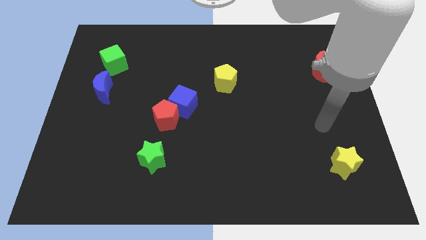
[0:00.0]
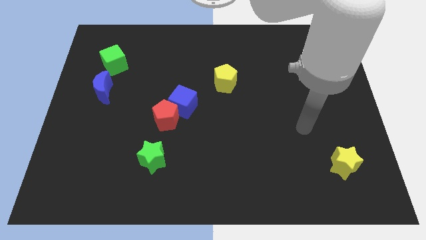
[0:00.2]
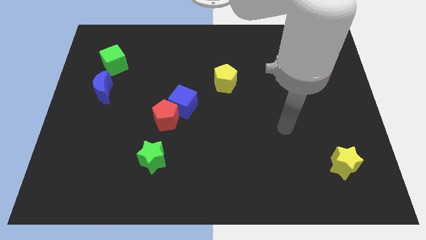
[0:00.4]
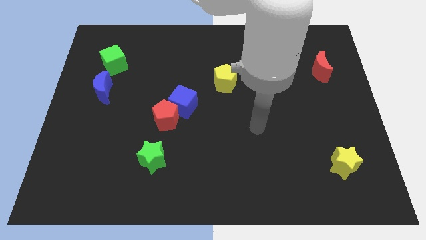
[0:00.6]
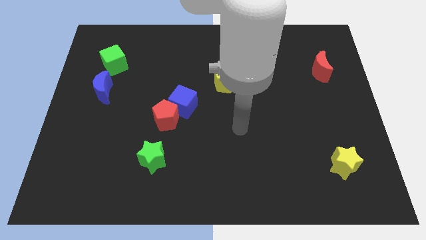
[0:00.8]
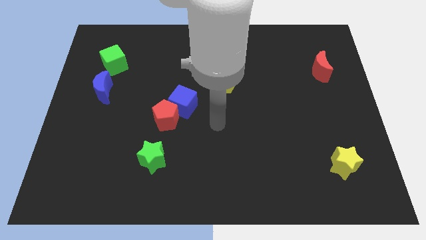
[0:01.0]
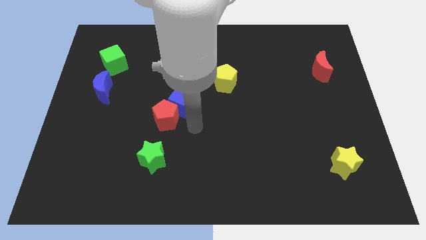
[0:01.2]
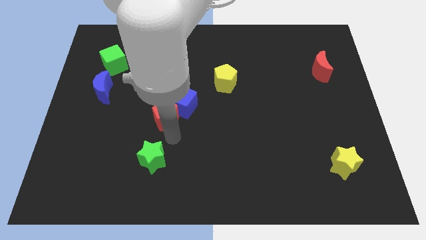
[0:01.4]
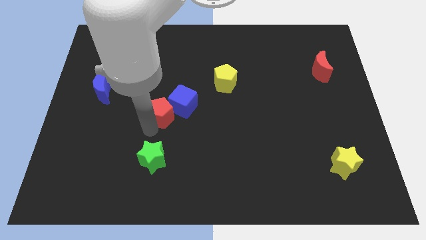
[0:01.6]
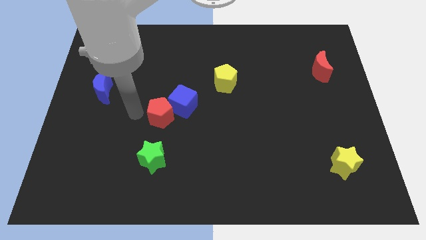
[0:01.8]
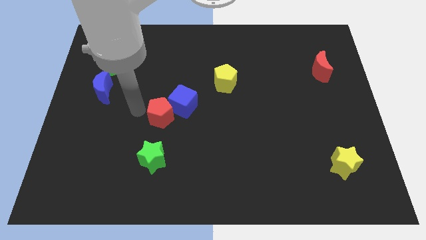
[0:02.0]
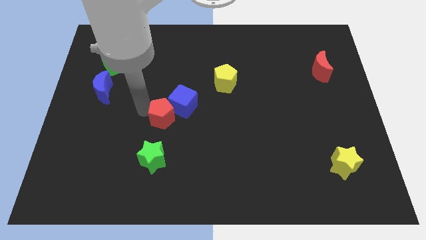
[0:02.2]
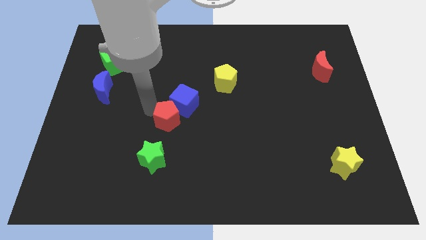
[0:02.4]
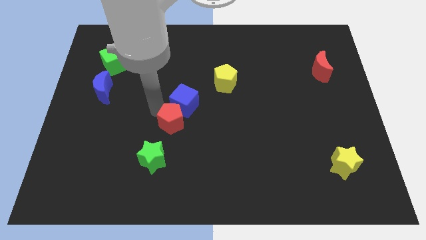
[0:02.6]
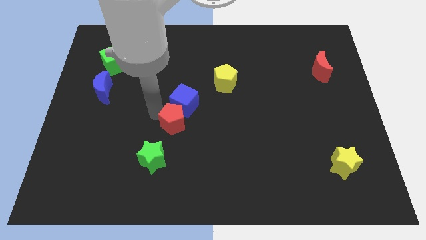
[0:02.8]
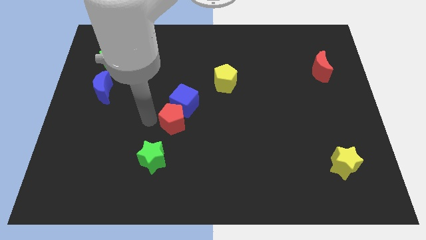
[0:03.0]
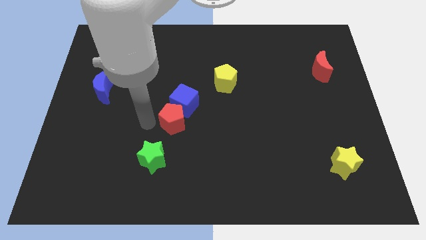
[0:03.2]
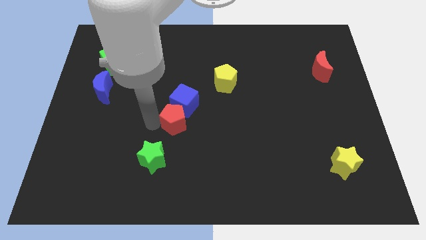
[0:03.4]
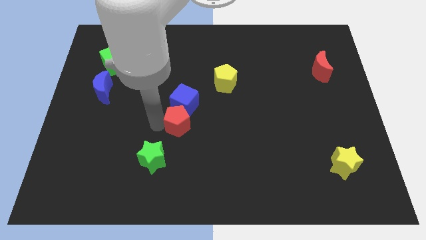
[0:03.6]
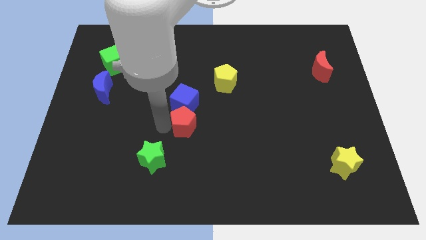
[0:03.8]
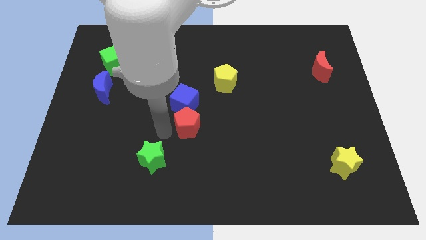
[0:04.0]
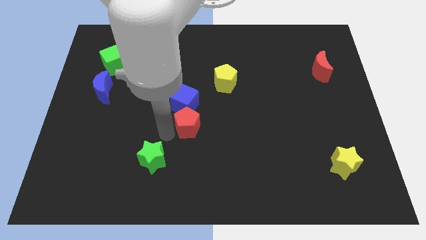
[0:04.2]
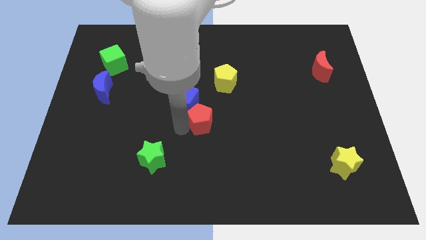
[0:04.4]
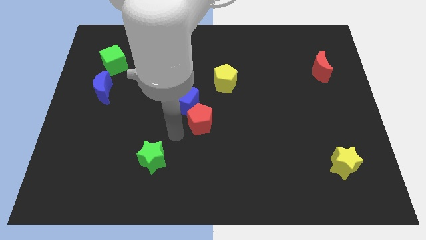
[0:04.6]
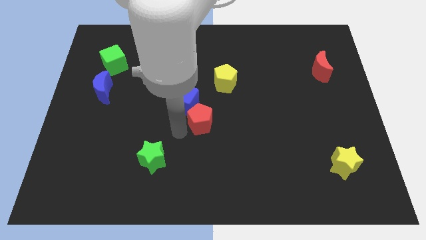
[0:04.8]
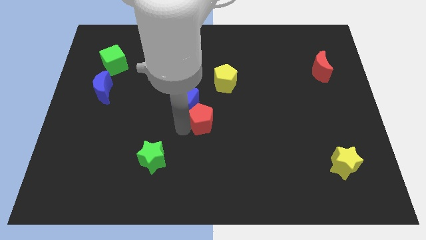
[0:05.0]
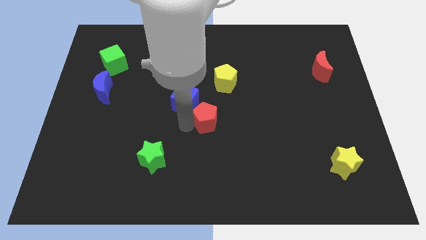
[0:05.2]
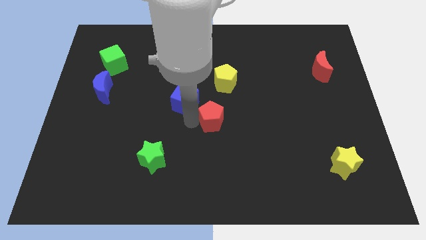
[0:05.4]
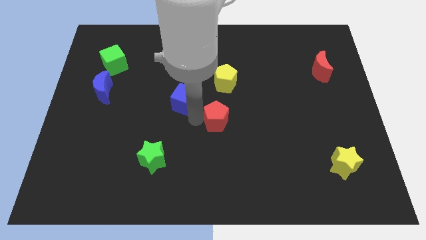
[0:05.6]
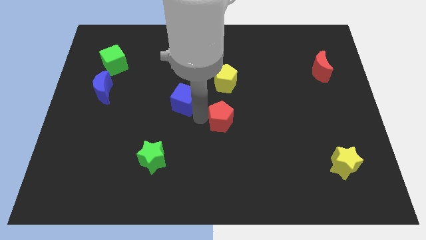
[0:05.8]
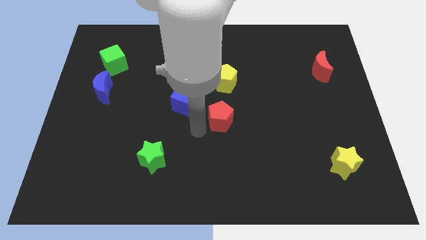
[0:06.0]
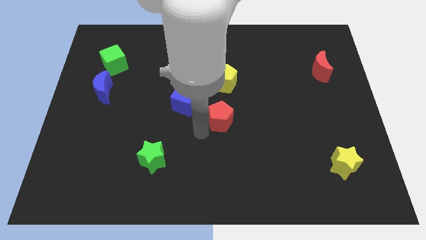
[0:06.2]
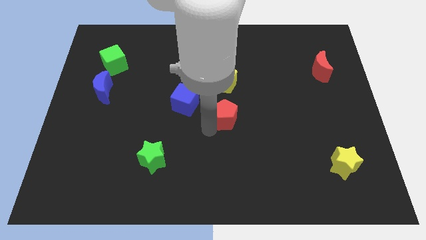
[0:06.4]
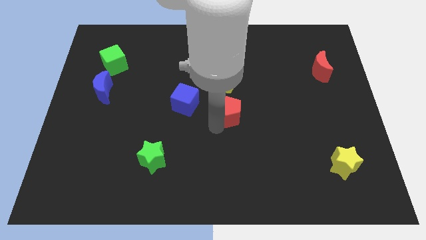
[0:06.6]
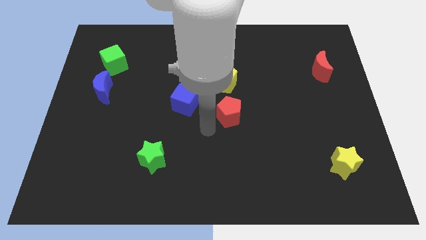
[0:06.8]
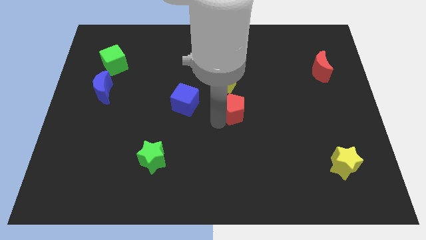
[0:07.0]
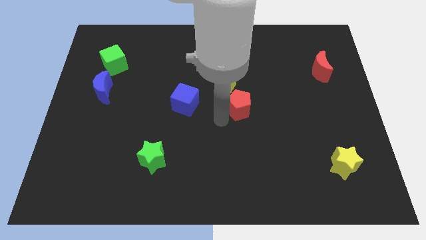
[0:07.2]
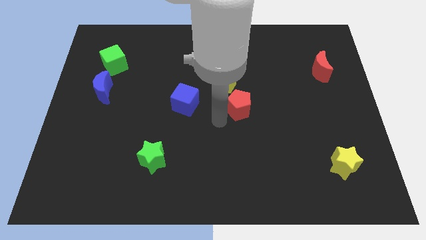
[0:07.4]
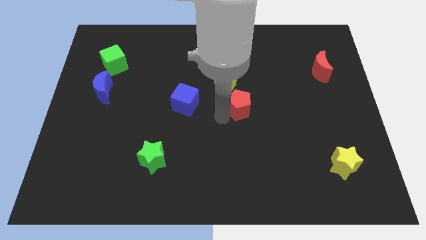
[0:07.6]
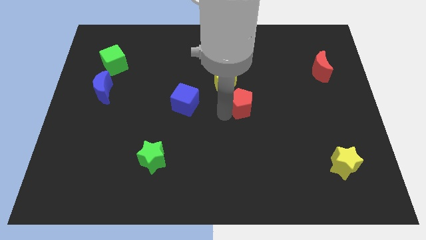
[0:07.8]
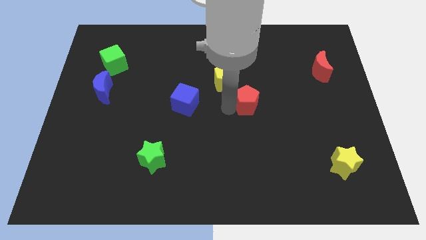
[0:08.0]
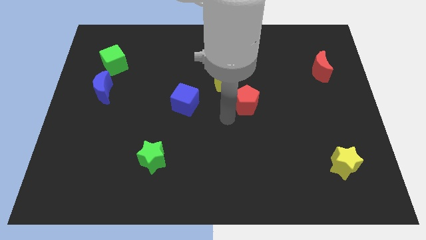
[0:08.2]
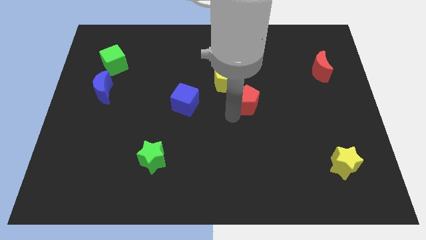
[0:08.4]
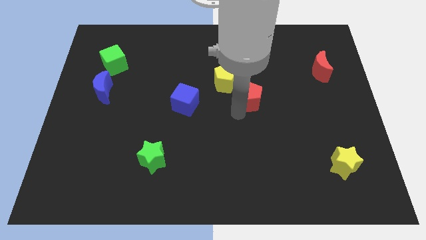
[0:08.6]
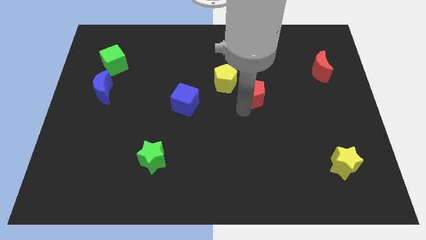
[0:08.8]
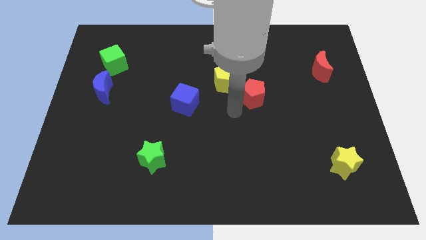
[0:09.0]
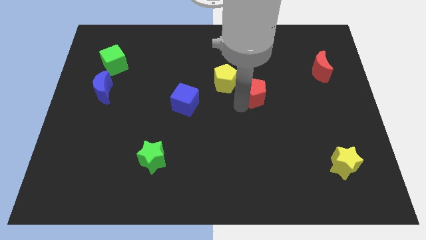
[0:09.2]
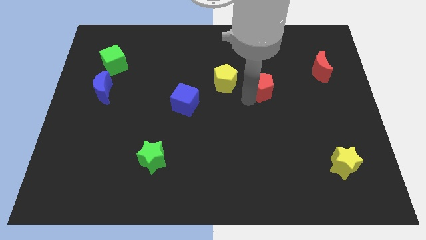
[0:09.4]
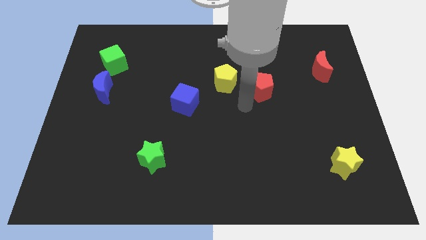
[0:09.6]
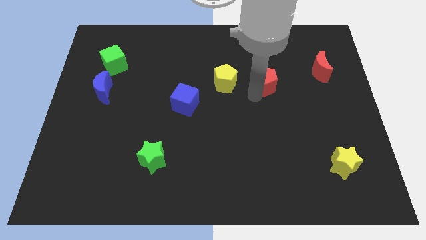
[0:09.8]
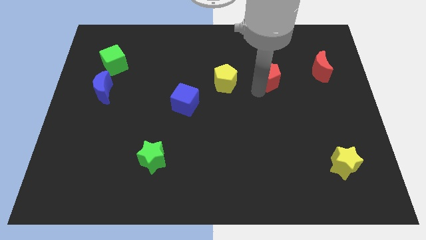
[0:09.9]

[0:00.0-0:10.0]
slide the red pentagon just left of the red moon

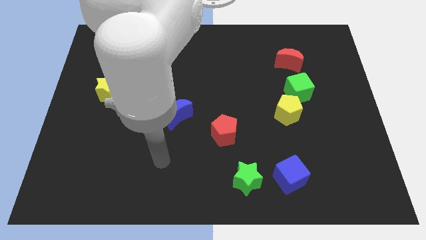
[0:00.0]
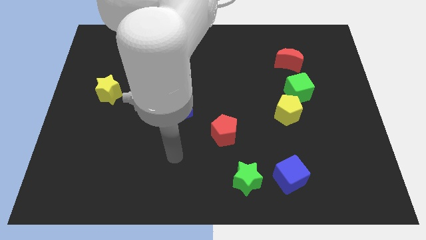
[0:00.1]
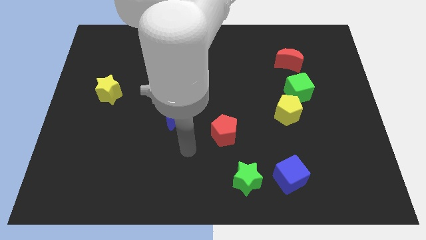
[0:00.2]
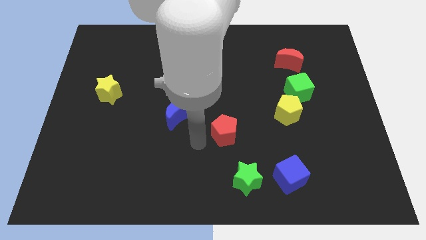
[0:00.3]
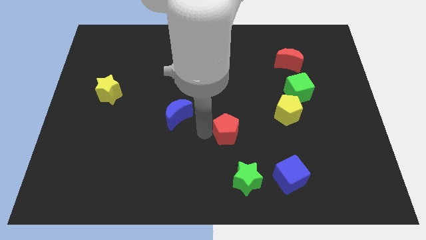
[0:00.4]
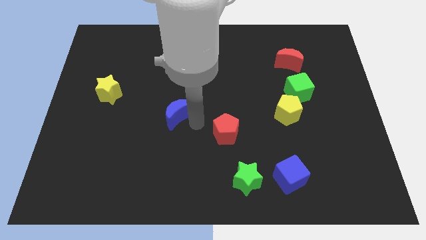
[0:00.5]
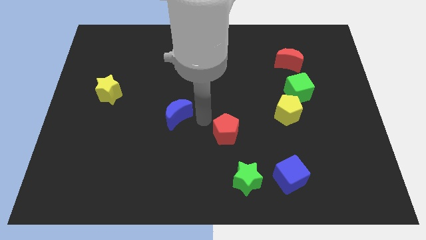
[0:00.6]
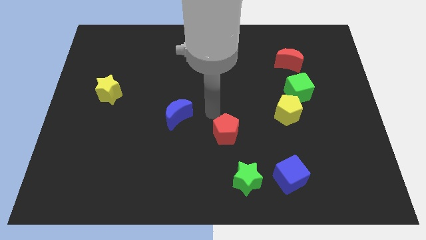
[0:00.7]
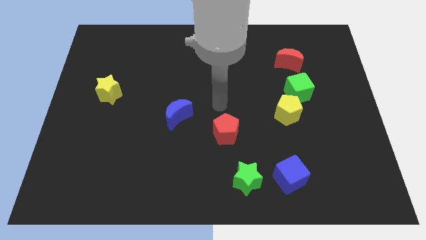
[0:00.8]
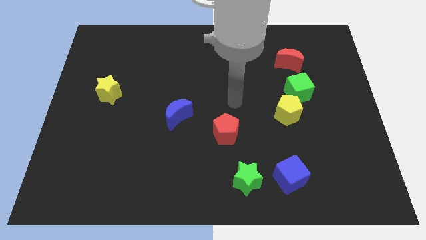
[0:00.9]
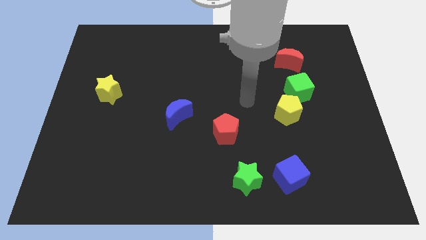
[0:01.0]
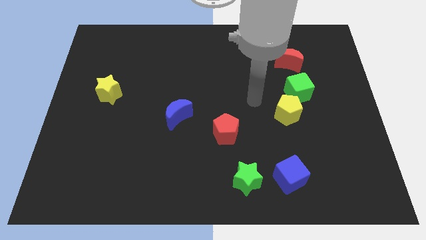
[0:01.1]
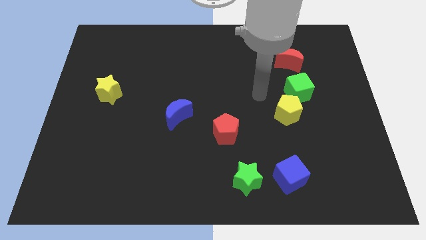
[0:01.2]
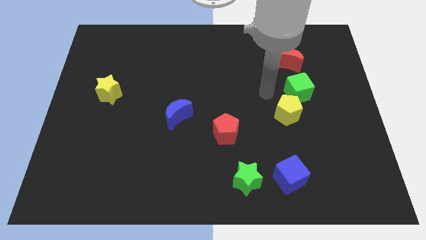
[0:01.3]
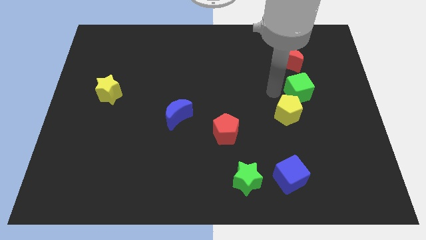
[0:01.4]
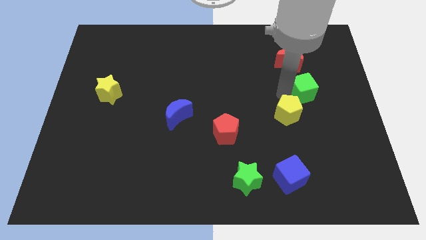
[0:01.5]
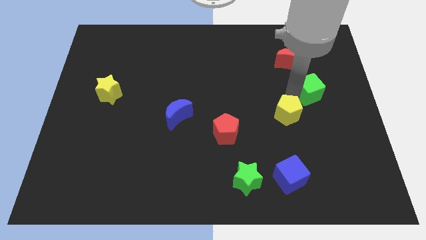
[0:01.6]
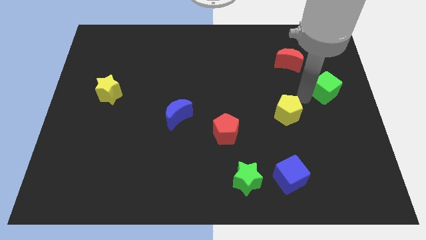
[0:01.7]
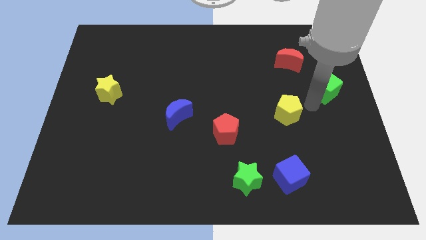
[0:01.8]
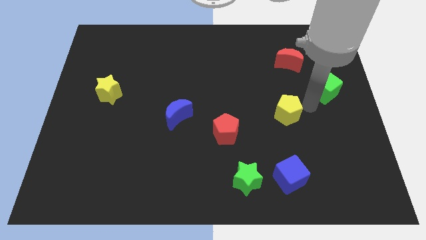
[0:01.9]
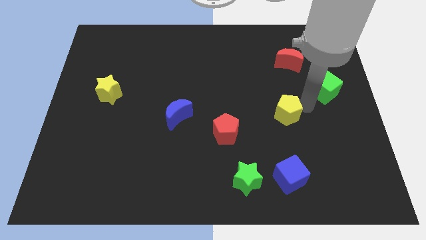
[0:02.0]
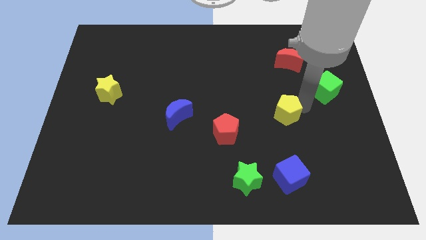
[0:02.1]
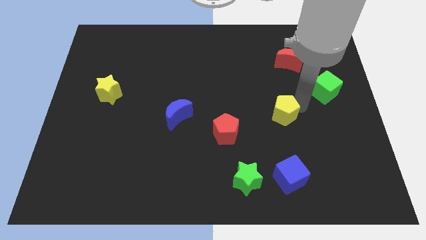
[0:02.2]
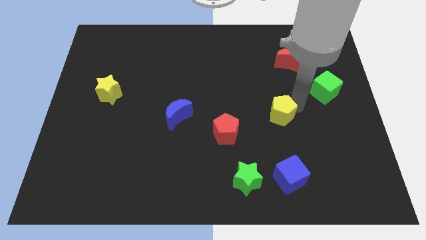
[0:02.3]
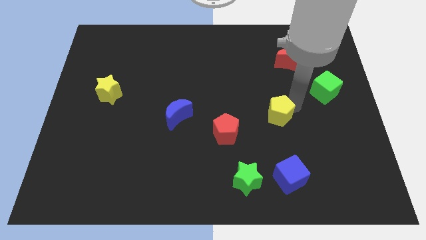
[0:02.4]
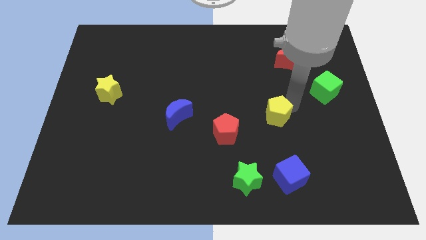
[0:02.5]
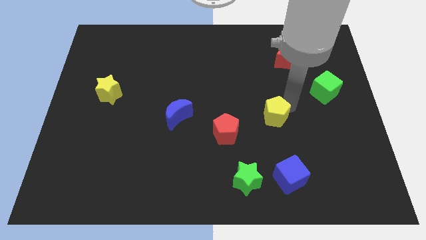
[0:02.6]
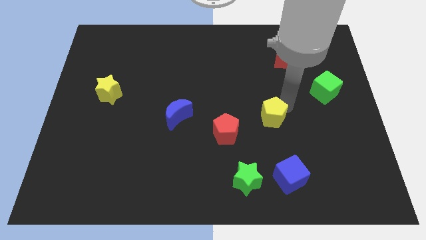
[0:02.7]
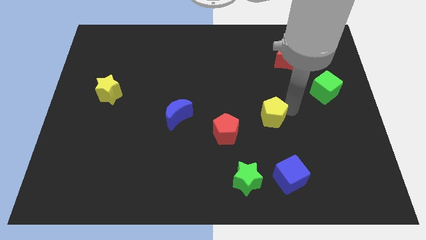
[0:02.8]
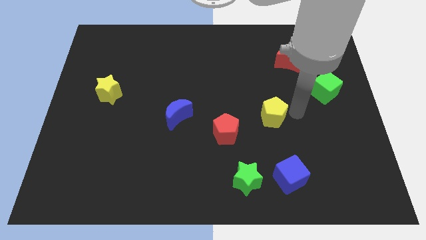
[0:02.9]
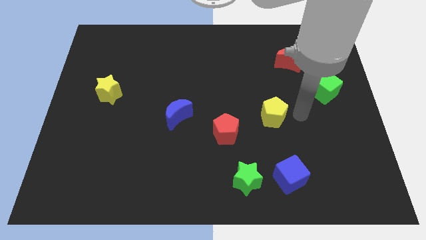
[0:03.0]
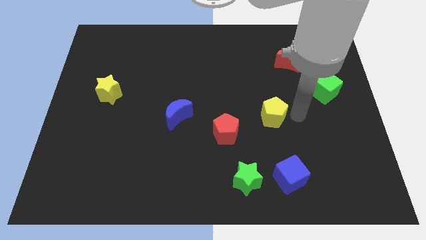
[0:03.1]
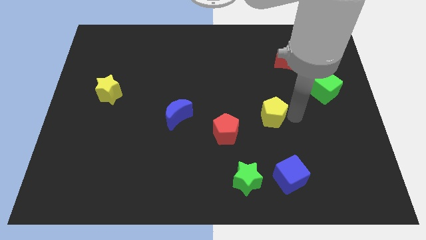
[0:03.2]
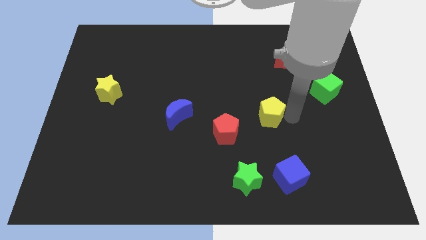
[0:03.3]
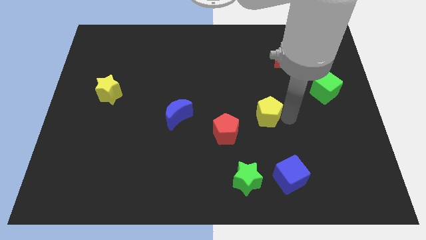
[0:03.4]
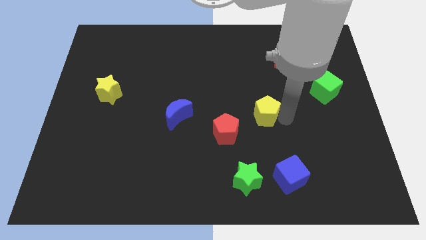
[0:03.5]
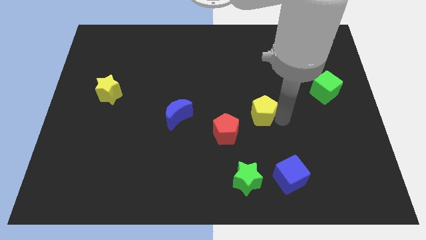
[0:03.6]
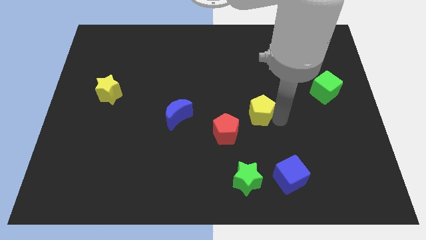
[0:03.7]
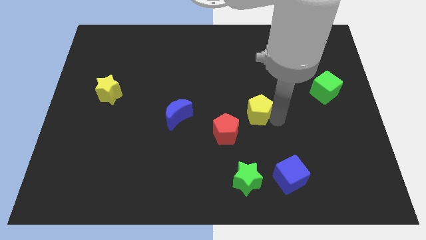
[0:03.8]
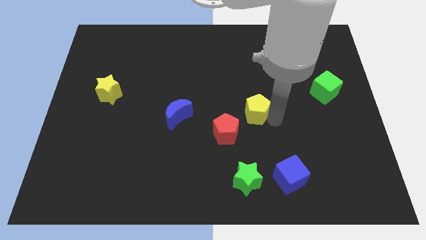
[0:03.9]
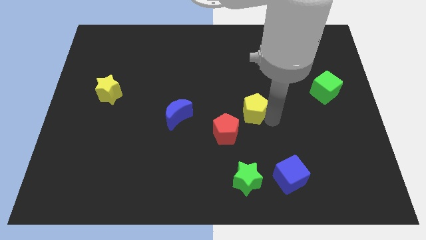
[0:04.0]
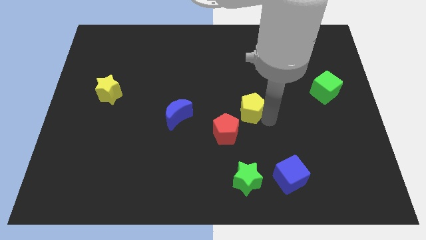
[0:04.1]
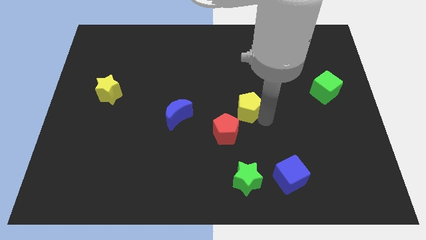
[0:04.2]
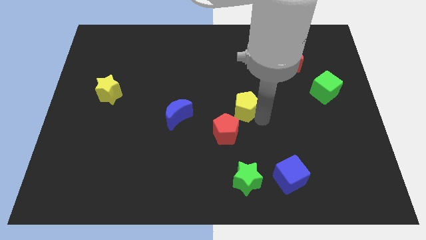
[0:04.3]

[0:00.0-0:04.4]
slide the yellow pentagon right of the blue moon
